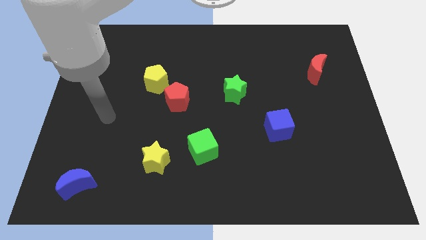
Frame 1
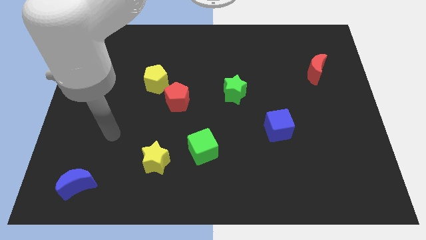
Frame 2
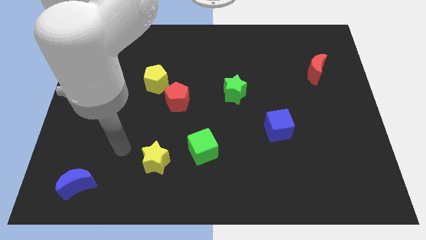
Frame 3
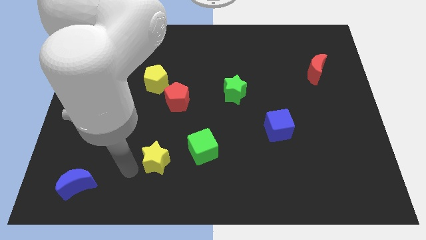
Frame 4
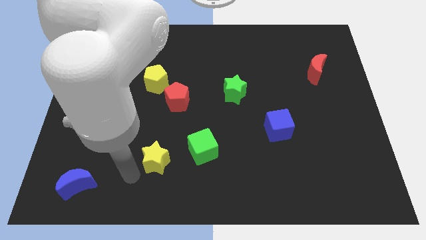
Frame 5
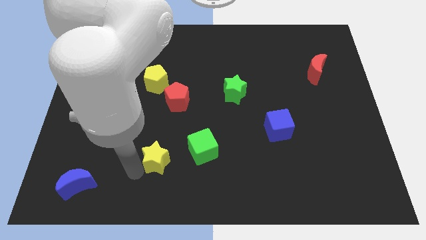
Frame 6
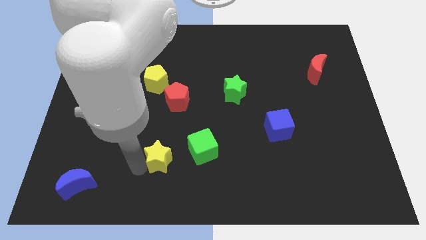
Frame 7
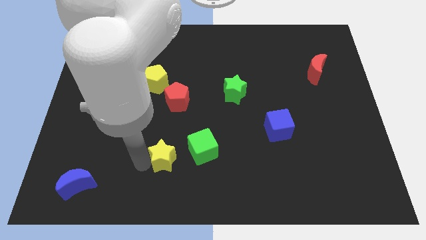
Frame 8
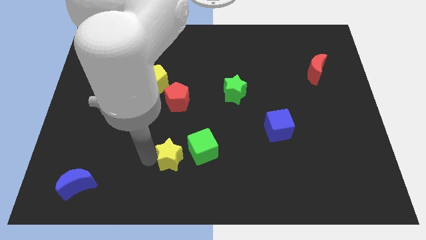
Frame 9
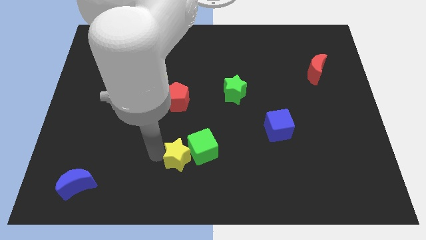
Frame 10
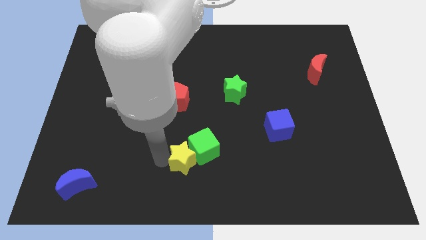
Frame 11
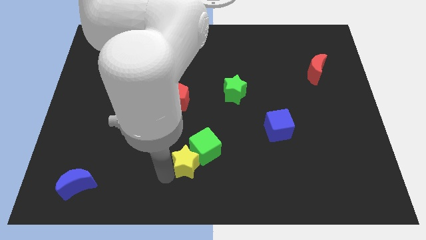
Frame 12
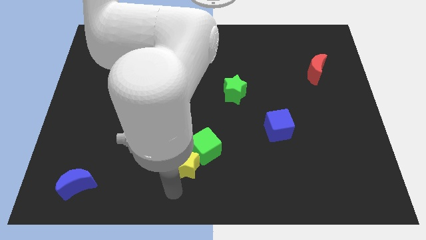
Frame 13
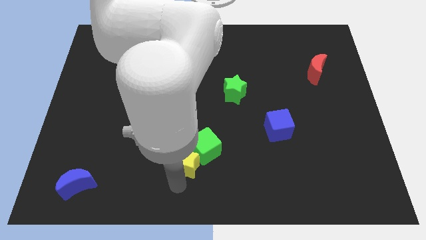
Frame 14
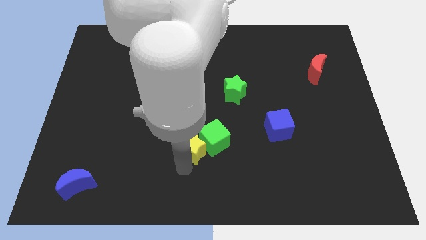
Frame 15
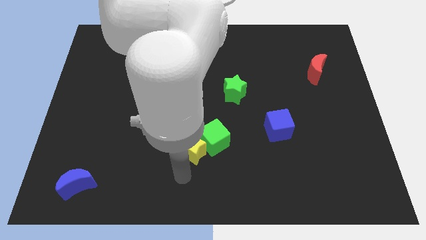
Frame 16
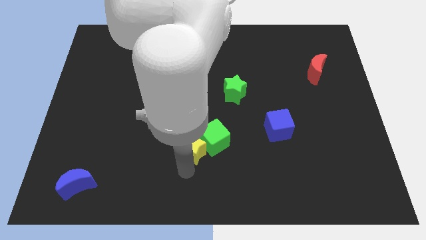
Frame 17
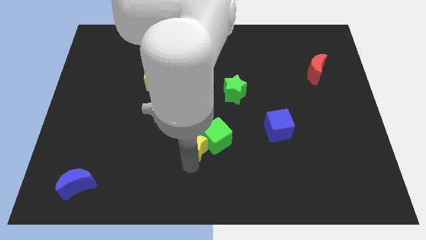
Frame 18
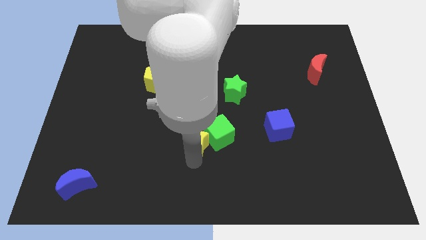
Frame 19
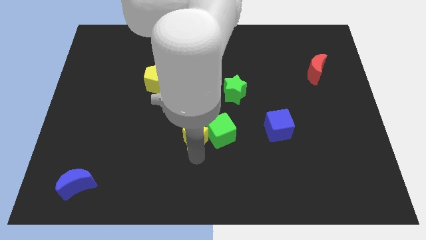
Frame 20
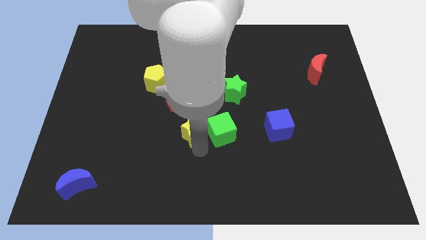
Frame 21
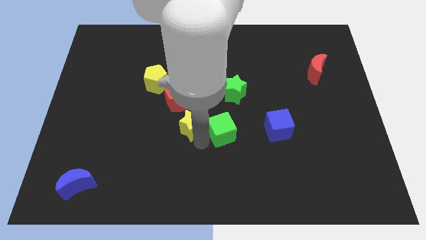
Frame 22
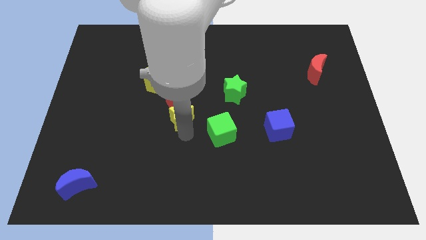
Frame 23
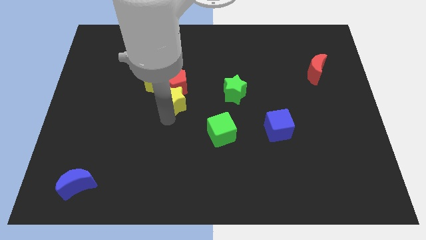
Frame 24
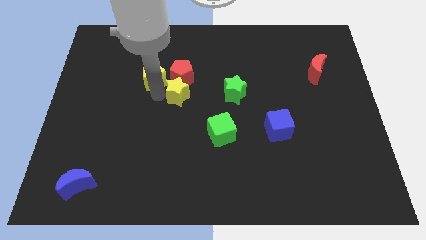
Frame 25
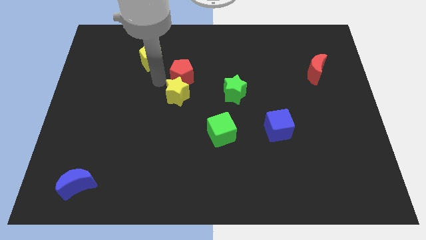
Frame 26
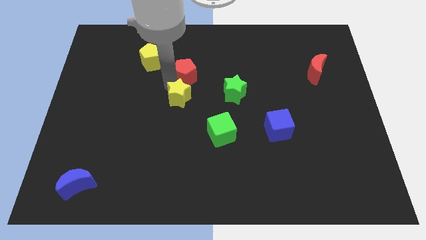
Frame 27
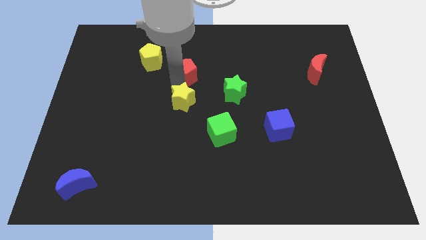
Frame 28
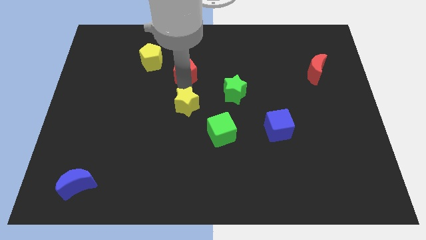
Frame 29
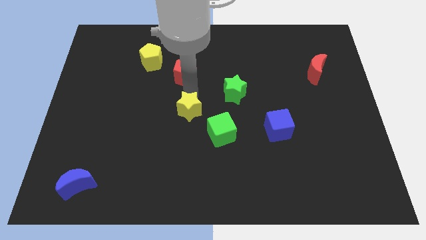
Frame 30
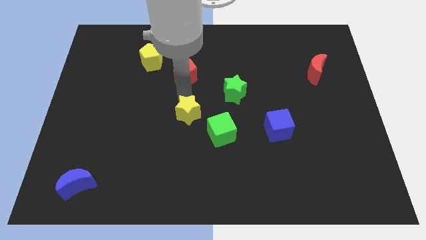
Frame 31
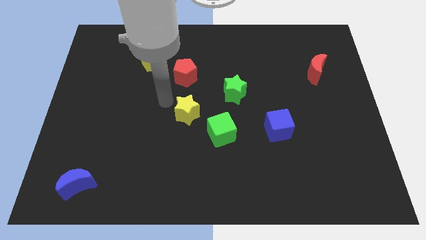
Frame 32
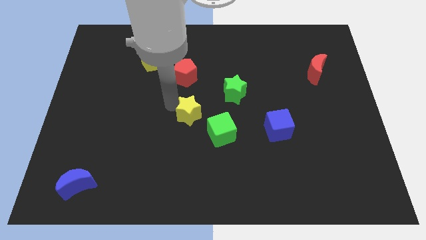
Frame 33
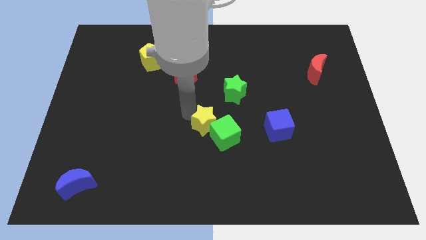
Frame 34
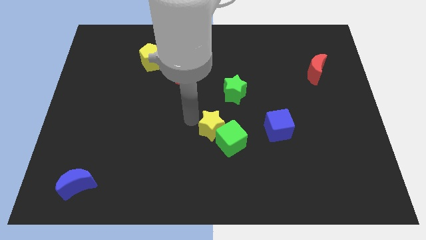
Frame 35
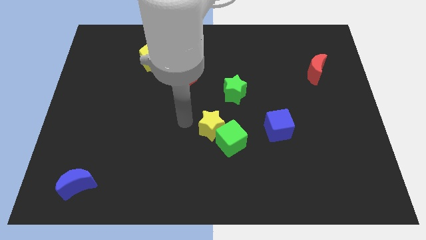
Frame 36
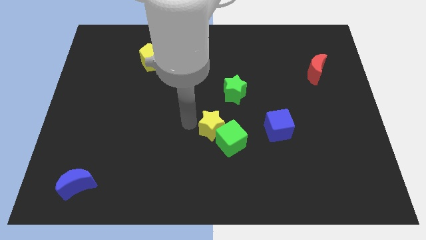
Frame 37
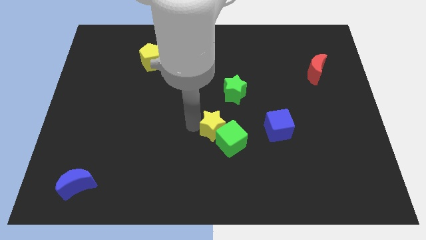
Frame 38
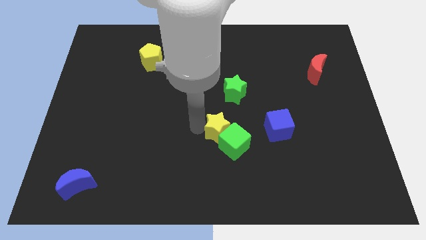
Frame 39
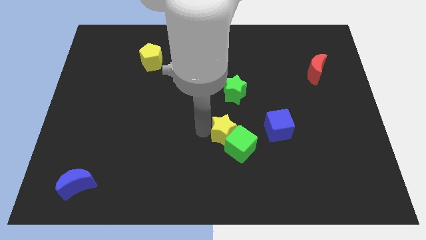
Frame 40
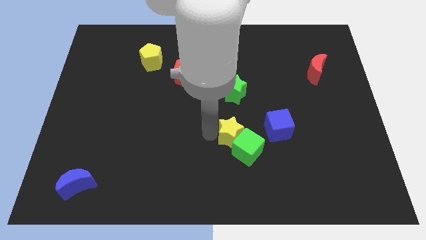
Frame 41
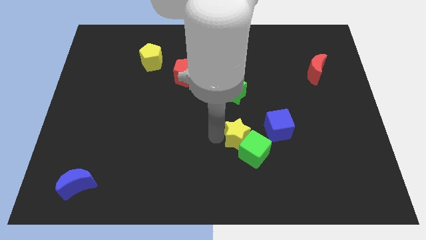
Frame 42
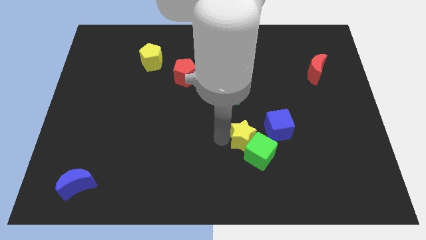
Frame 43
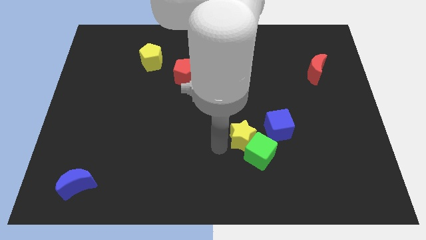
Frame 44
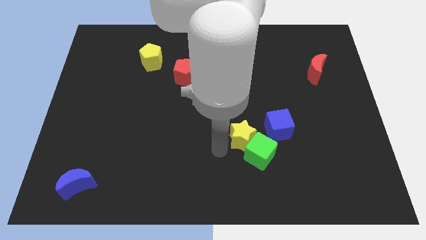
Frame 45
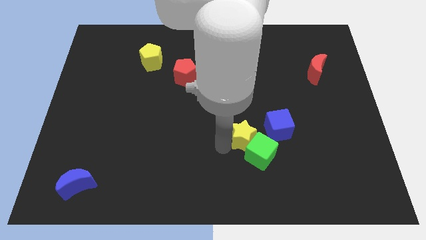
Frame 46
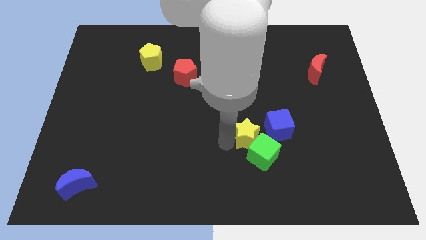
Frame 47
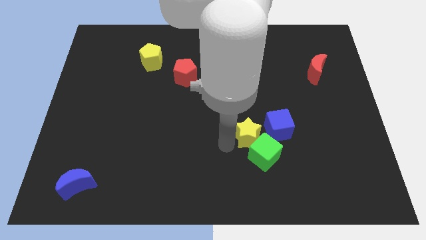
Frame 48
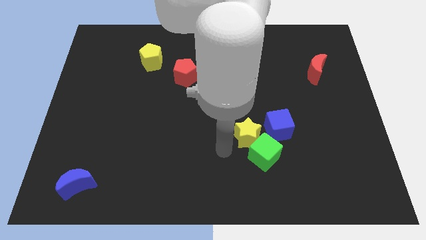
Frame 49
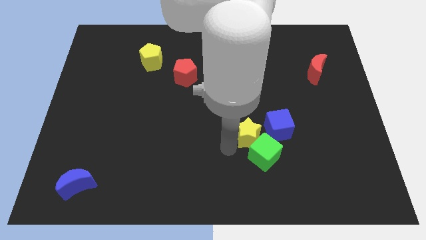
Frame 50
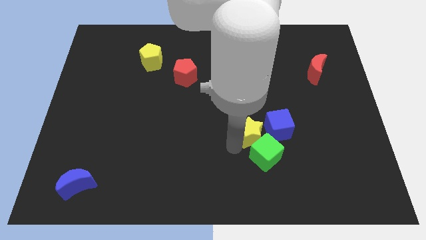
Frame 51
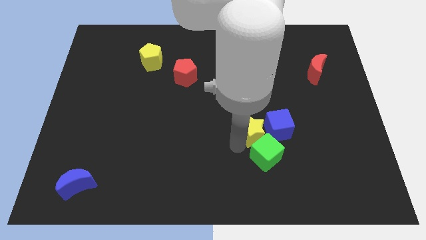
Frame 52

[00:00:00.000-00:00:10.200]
put the yellow star to the blue cube

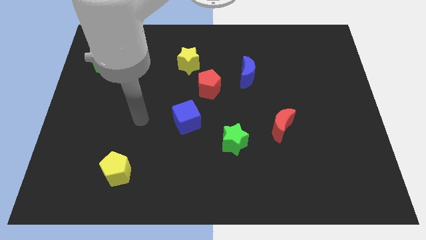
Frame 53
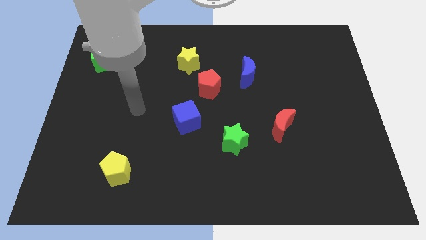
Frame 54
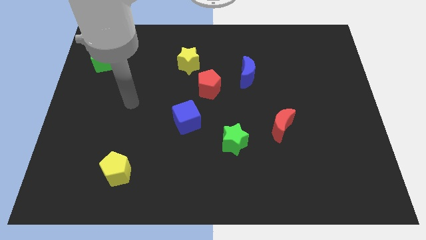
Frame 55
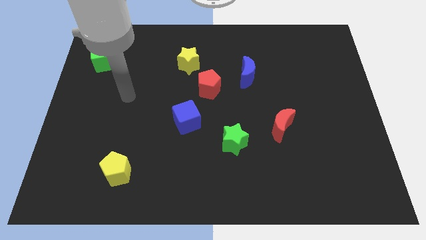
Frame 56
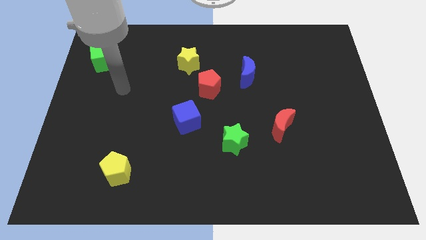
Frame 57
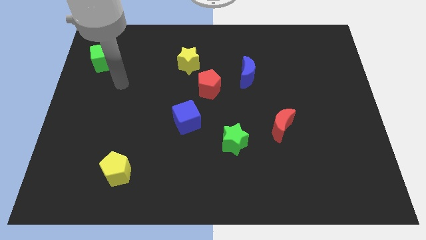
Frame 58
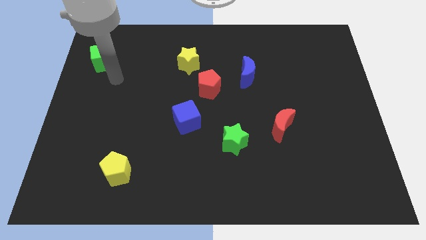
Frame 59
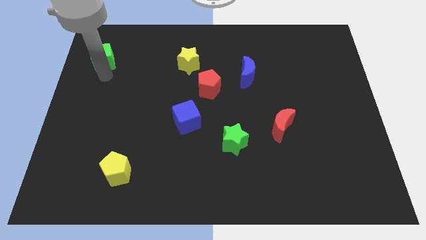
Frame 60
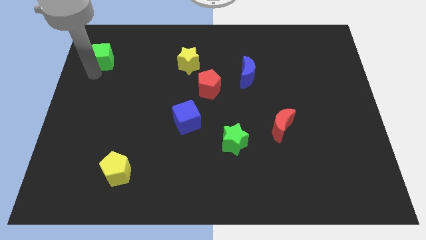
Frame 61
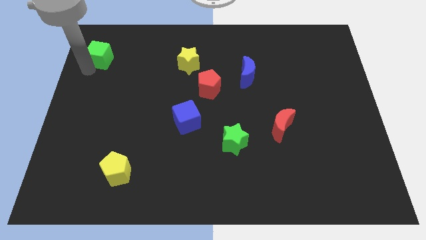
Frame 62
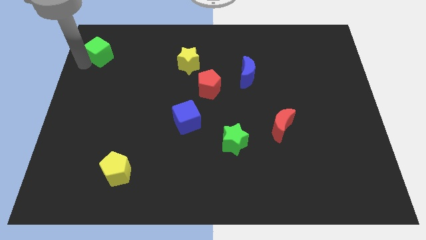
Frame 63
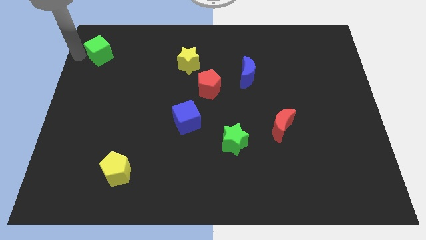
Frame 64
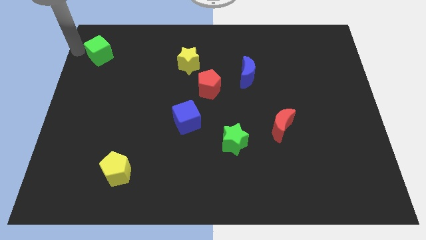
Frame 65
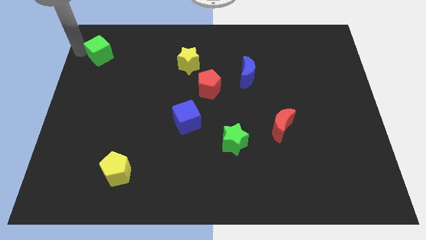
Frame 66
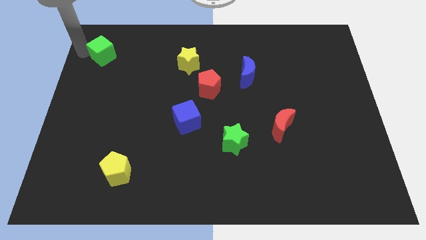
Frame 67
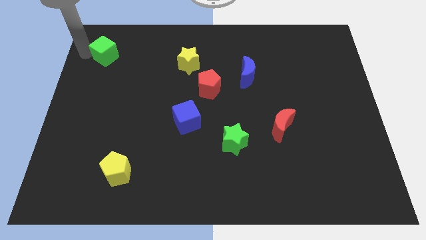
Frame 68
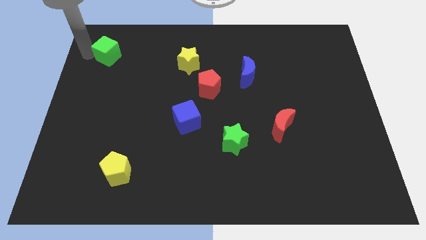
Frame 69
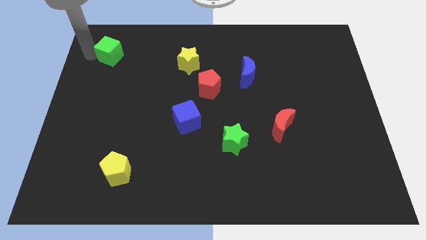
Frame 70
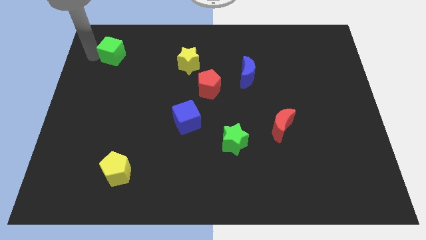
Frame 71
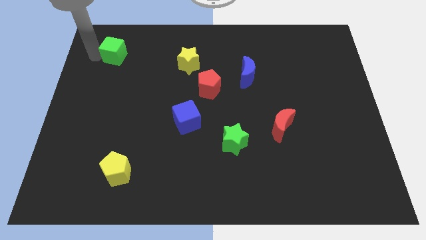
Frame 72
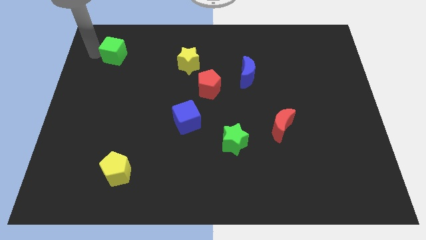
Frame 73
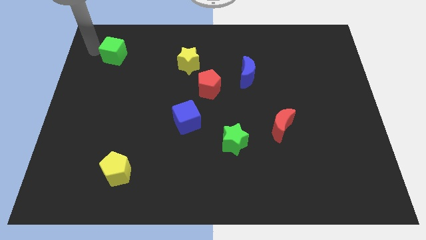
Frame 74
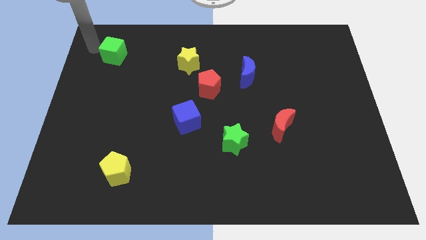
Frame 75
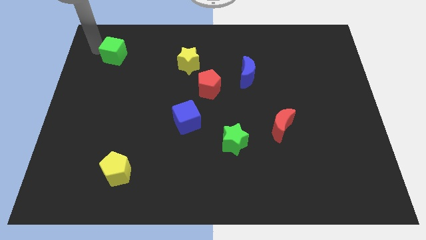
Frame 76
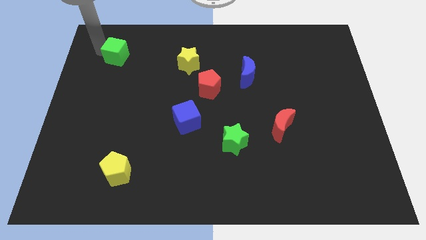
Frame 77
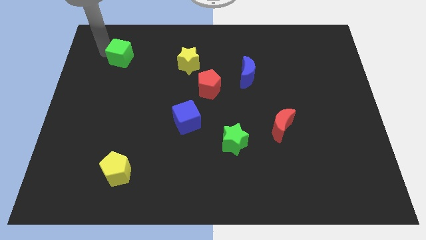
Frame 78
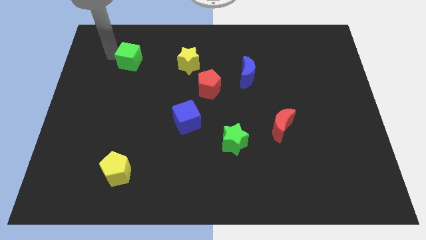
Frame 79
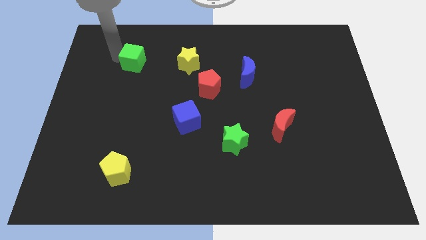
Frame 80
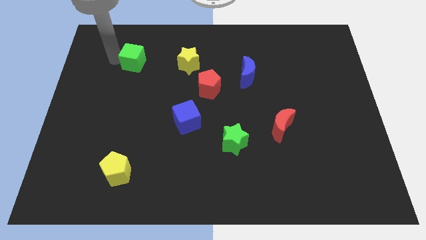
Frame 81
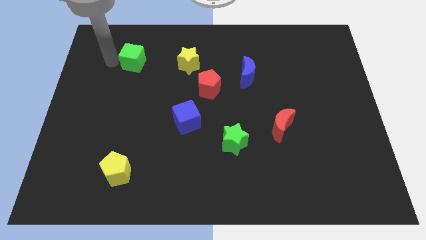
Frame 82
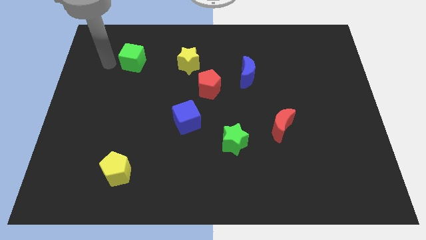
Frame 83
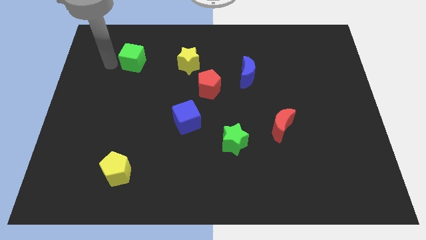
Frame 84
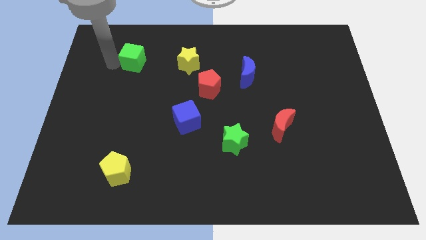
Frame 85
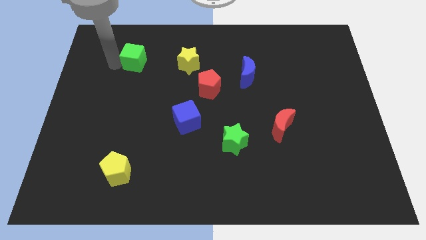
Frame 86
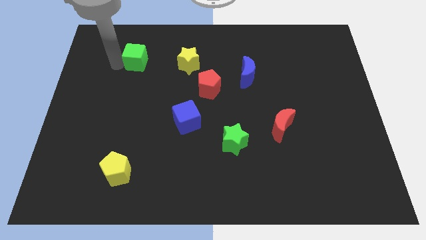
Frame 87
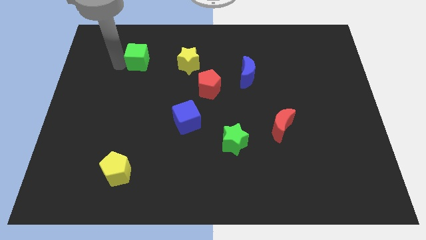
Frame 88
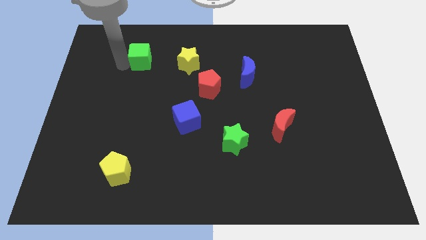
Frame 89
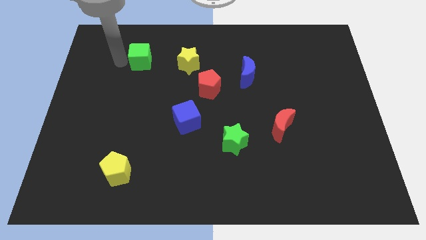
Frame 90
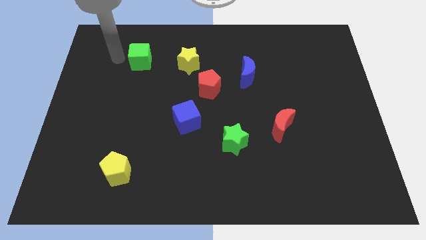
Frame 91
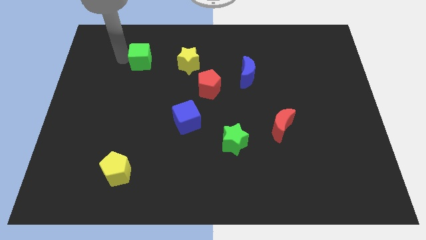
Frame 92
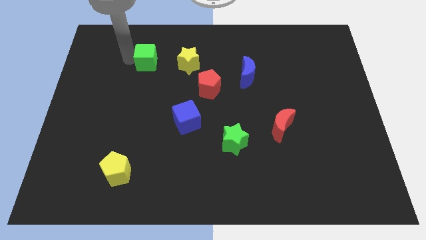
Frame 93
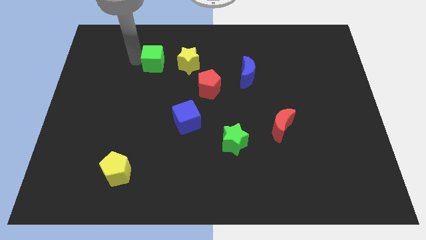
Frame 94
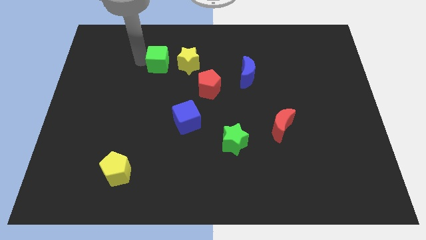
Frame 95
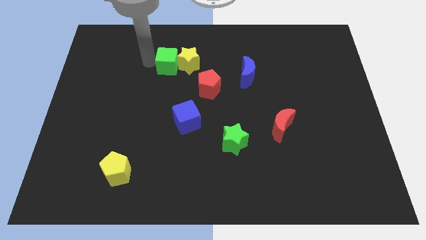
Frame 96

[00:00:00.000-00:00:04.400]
move the green cube close to the yellow star
